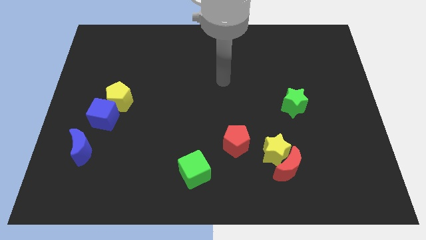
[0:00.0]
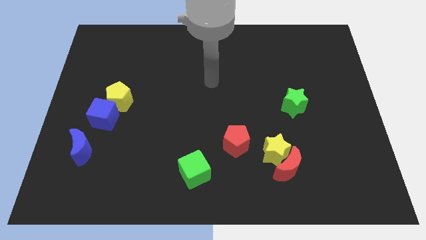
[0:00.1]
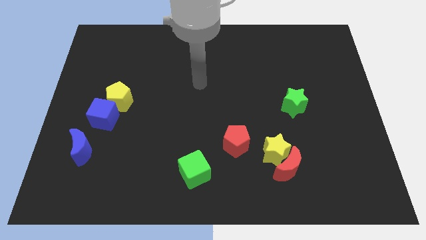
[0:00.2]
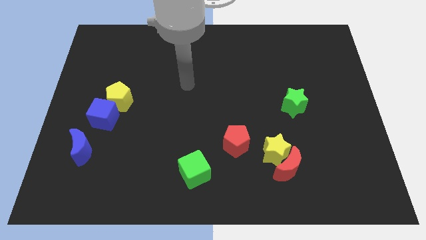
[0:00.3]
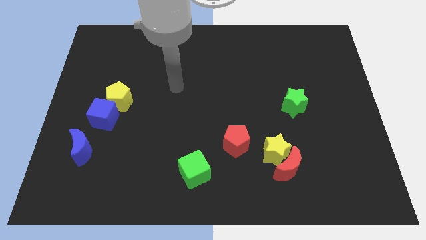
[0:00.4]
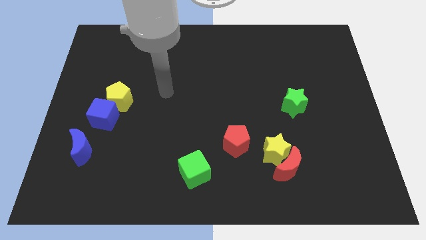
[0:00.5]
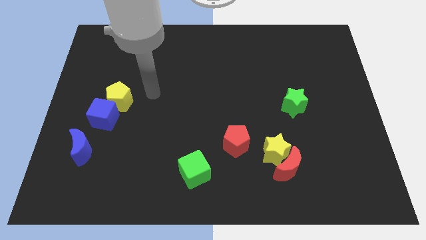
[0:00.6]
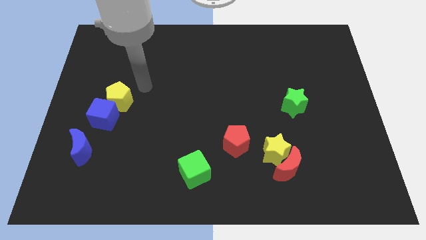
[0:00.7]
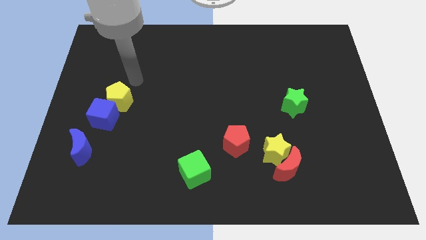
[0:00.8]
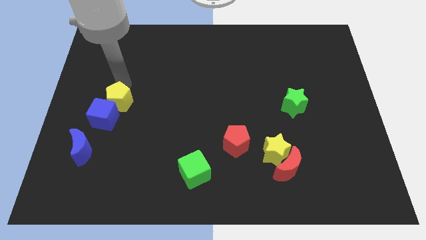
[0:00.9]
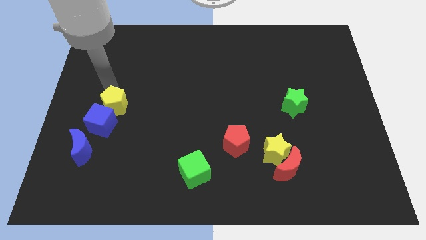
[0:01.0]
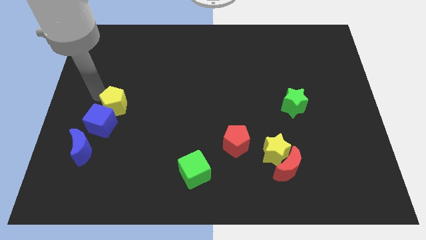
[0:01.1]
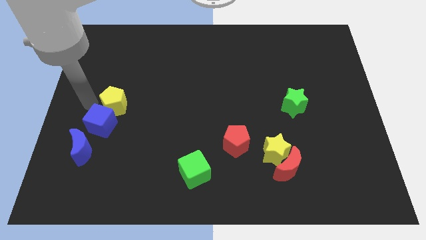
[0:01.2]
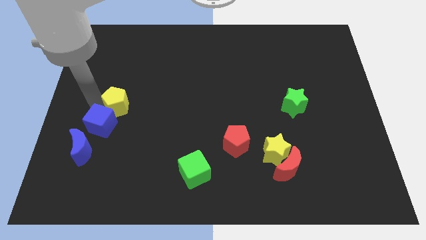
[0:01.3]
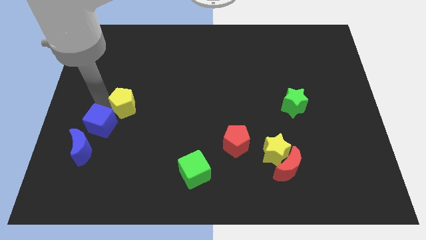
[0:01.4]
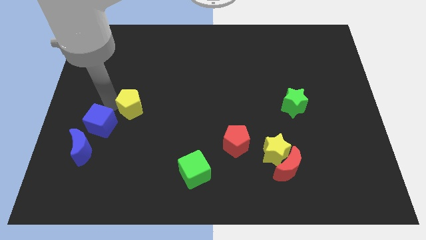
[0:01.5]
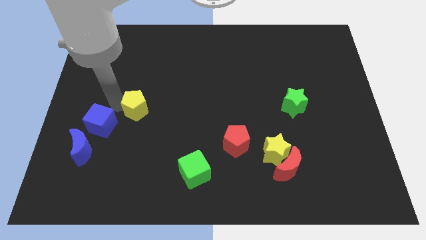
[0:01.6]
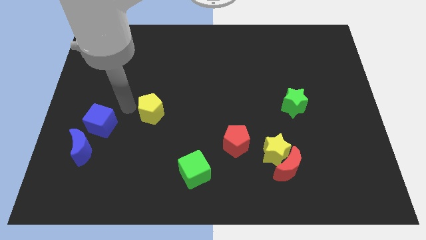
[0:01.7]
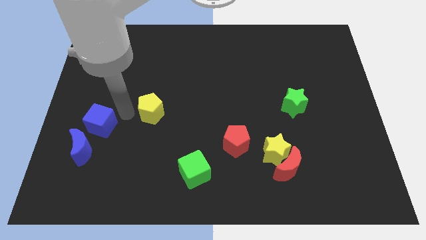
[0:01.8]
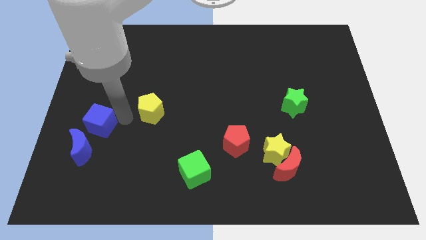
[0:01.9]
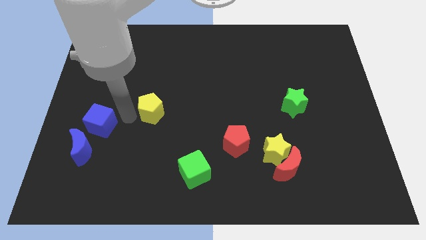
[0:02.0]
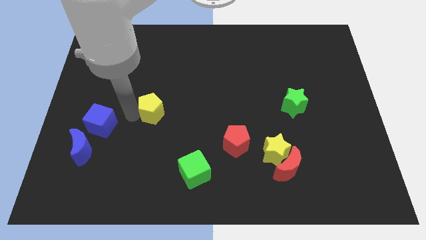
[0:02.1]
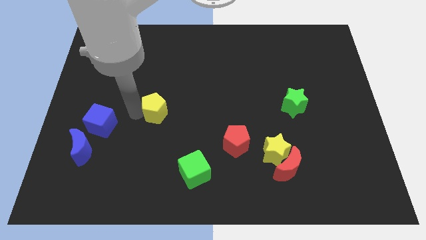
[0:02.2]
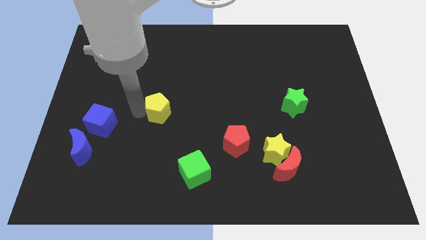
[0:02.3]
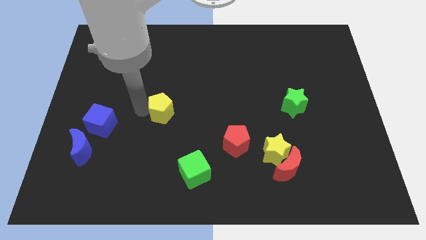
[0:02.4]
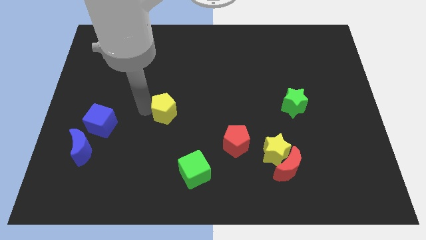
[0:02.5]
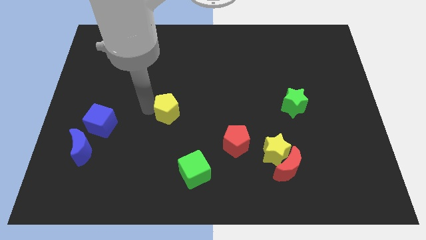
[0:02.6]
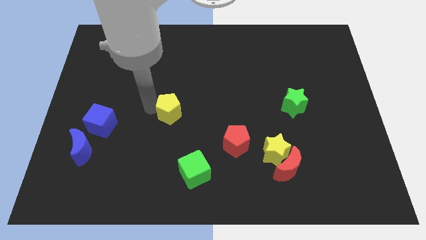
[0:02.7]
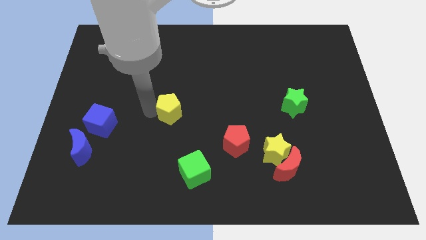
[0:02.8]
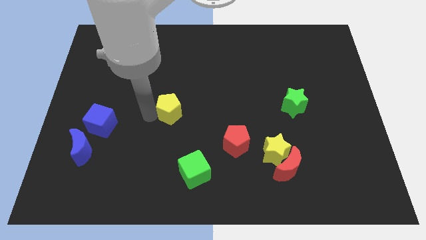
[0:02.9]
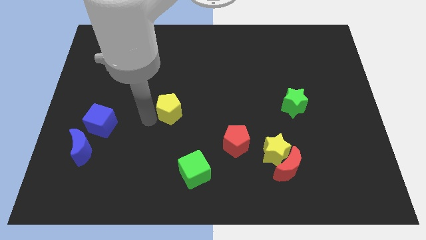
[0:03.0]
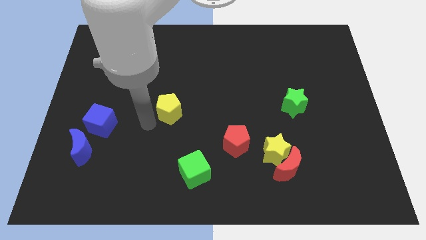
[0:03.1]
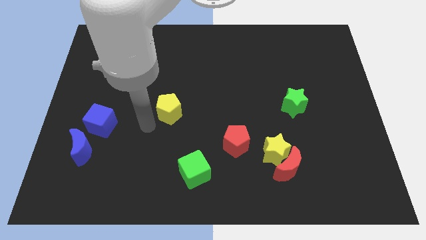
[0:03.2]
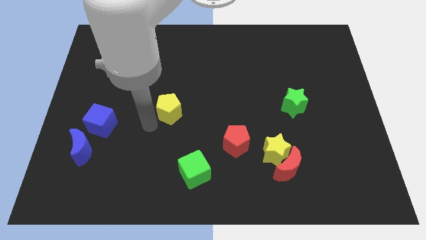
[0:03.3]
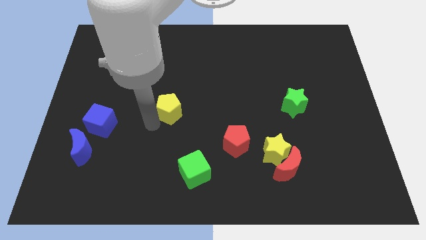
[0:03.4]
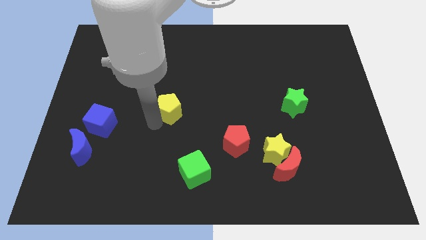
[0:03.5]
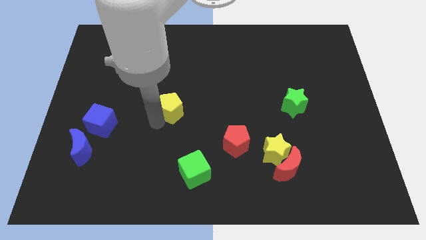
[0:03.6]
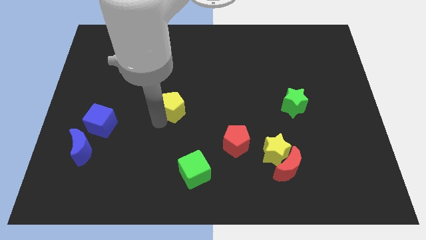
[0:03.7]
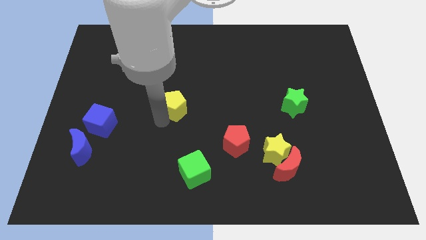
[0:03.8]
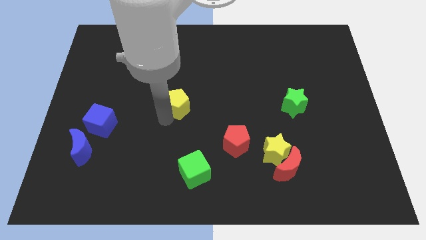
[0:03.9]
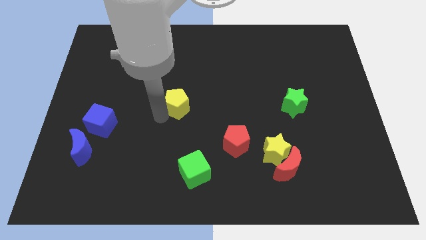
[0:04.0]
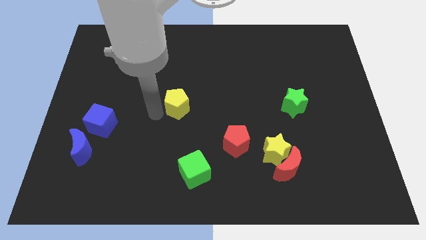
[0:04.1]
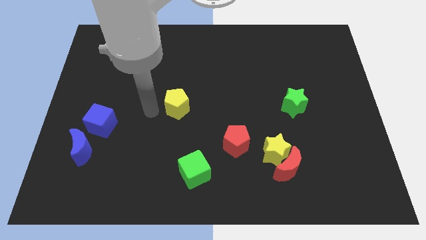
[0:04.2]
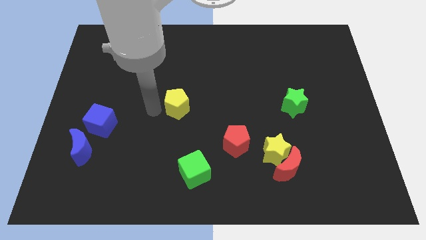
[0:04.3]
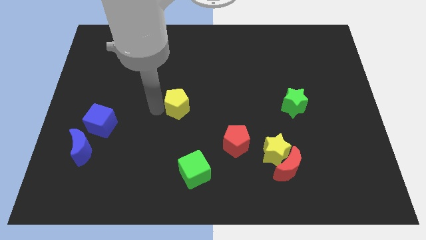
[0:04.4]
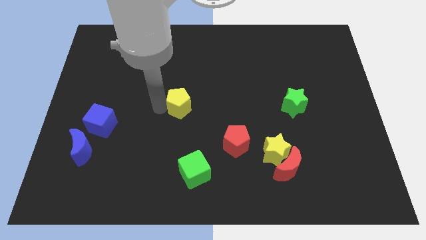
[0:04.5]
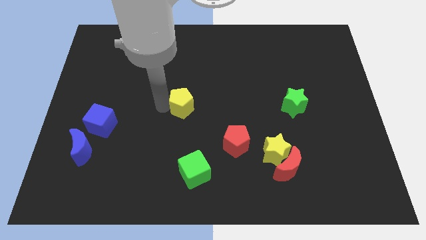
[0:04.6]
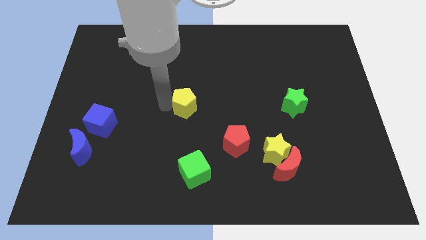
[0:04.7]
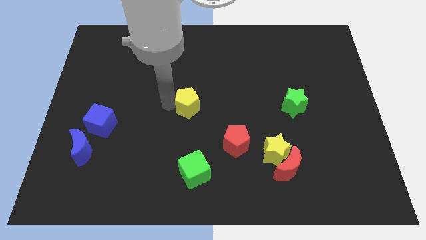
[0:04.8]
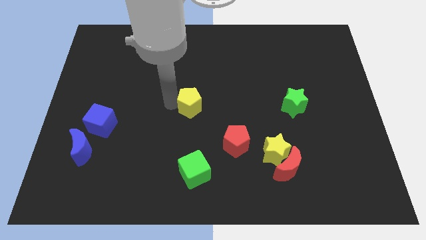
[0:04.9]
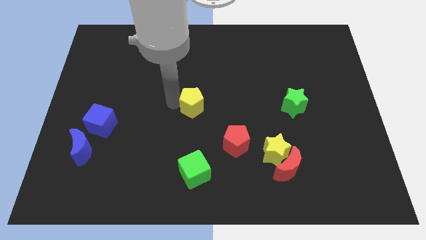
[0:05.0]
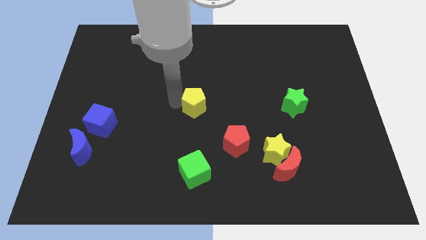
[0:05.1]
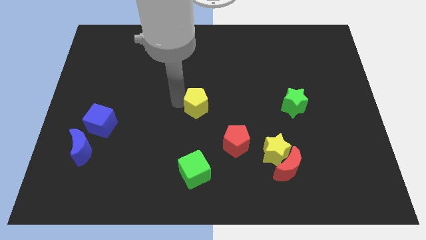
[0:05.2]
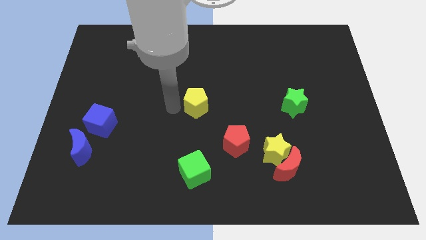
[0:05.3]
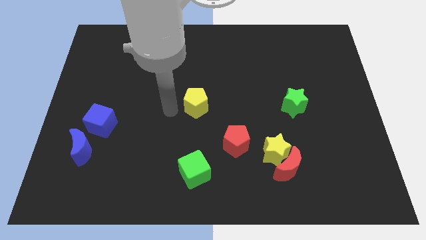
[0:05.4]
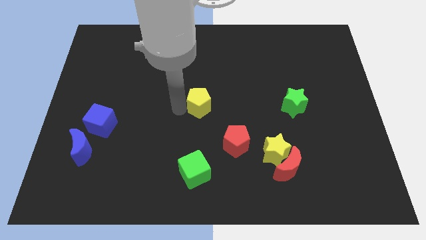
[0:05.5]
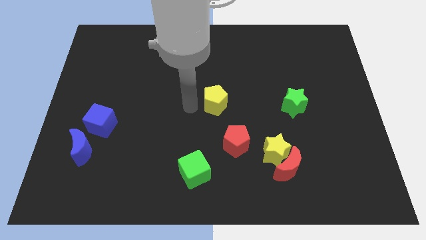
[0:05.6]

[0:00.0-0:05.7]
push the yellow pentagon to the right

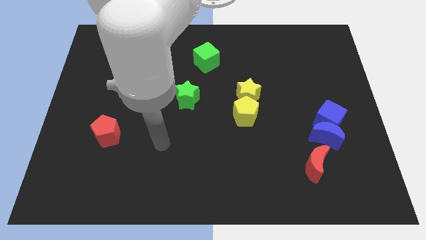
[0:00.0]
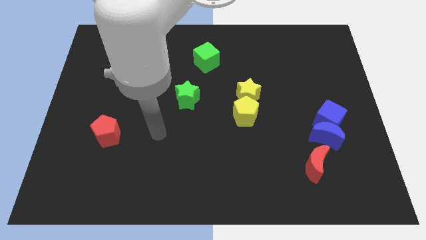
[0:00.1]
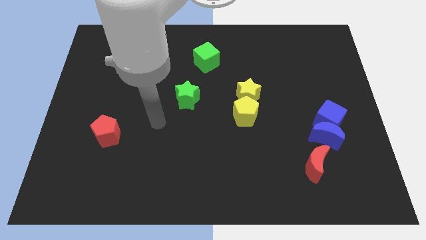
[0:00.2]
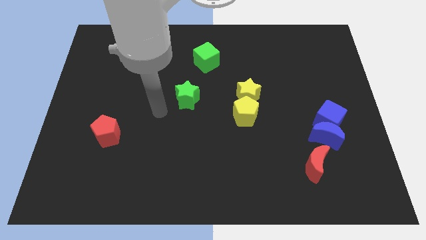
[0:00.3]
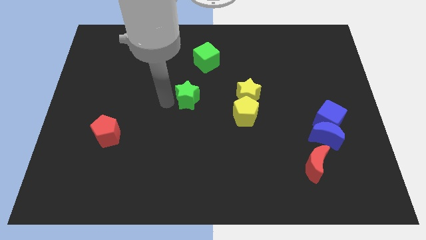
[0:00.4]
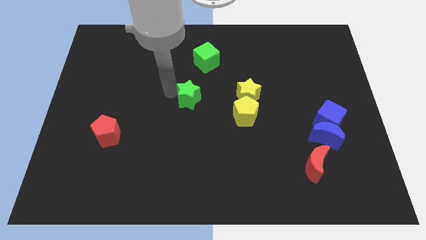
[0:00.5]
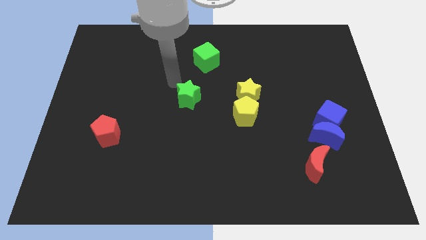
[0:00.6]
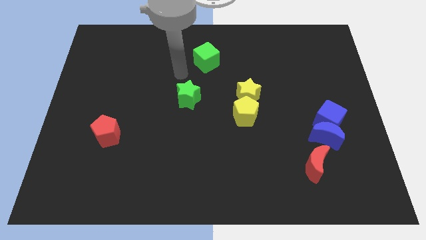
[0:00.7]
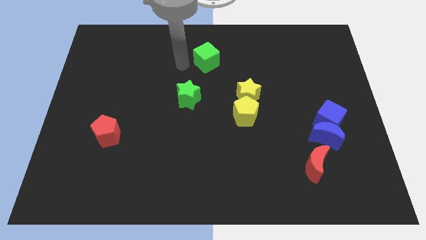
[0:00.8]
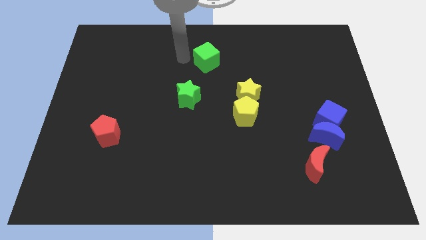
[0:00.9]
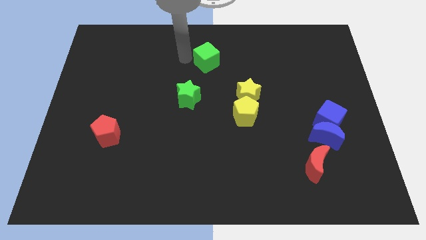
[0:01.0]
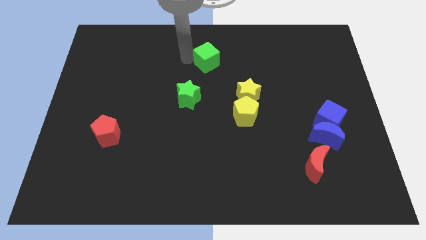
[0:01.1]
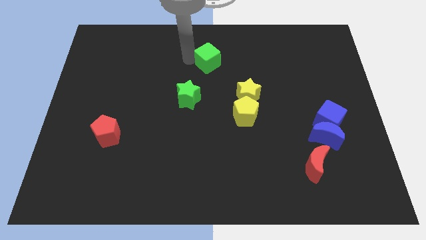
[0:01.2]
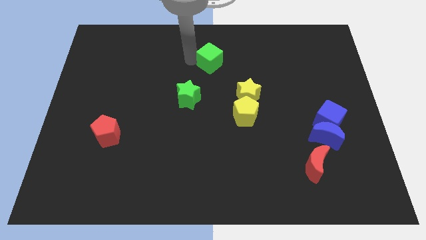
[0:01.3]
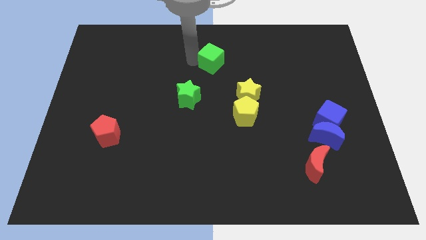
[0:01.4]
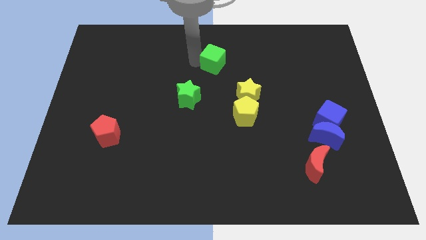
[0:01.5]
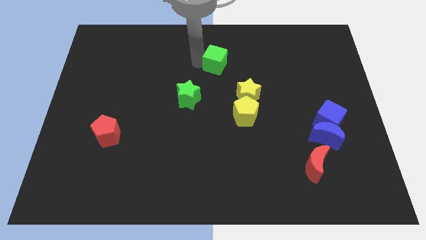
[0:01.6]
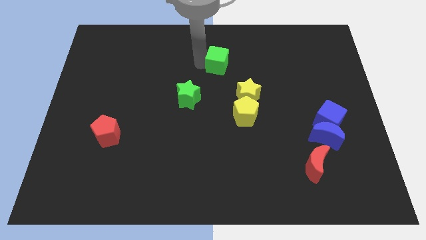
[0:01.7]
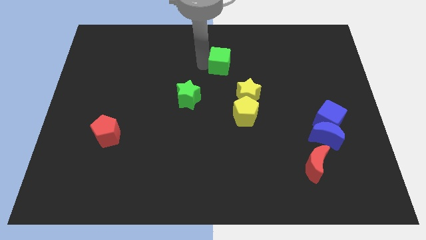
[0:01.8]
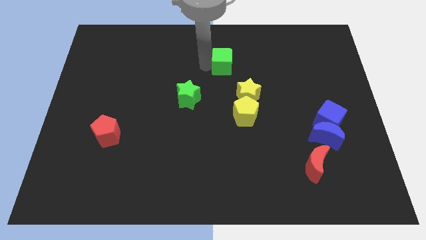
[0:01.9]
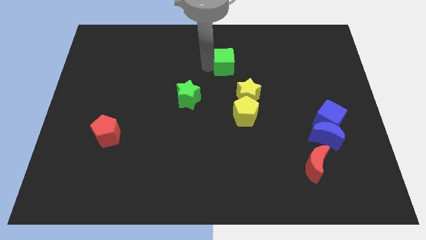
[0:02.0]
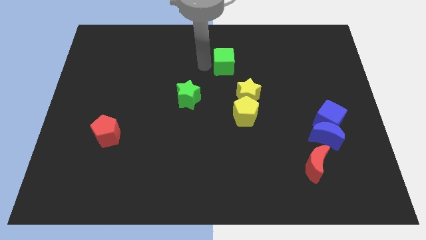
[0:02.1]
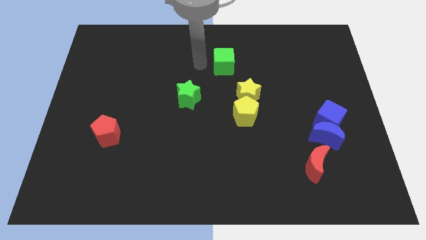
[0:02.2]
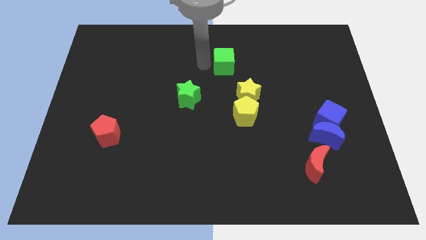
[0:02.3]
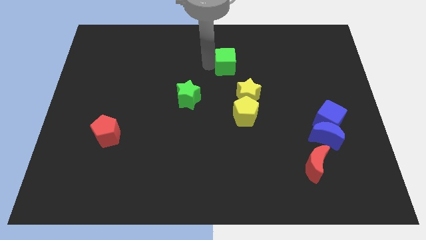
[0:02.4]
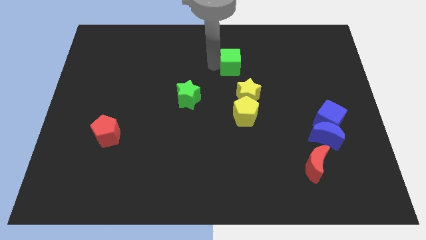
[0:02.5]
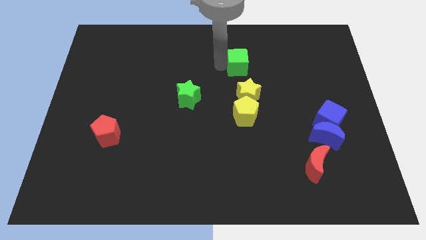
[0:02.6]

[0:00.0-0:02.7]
slightly slide the green cube to the right
